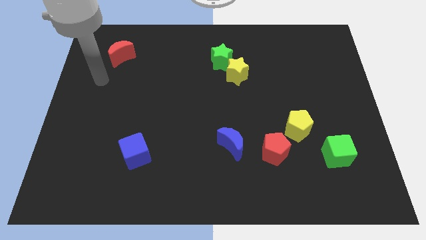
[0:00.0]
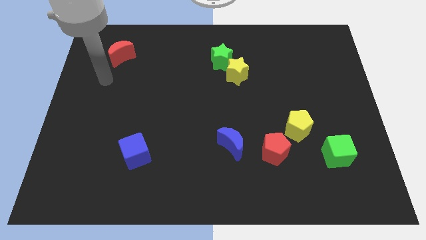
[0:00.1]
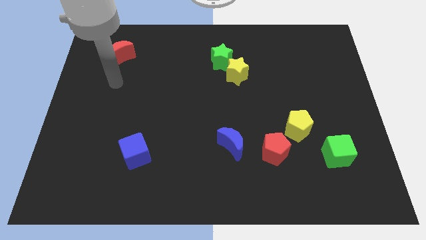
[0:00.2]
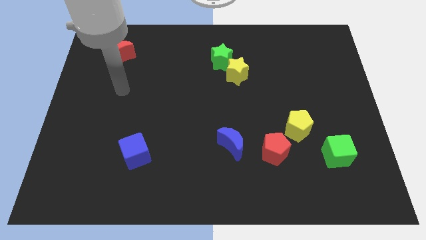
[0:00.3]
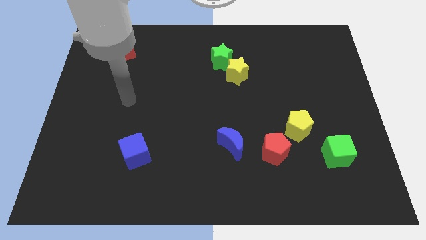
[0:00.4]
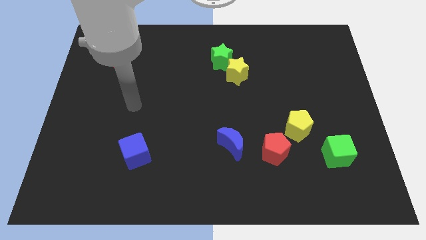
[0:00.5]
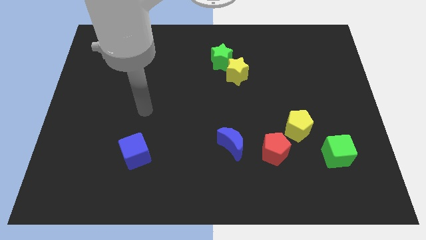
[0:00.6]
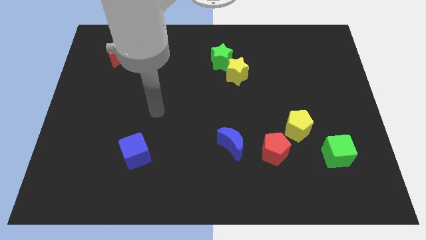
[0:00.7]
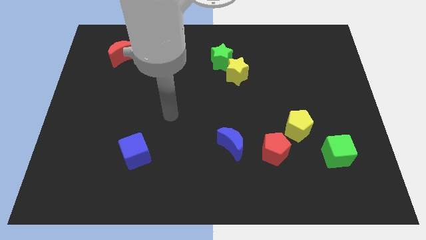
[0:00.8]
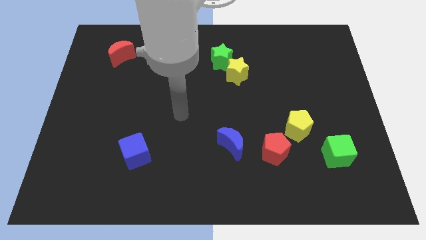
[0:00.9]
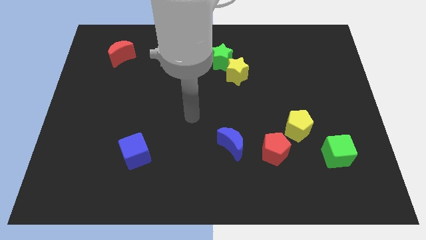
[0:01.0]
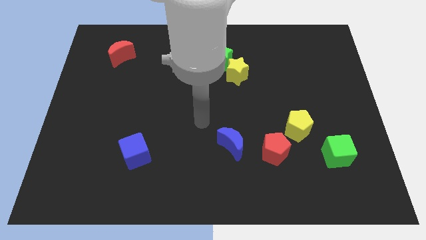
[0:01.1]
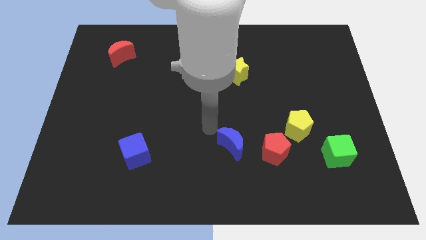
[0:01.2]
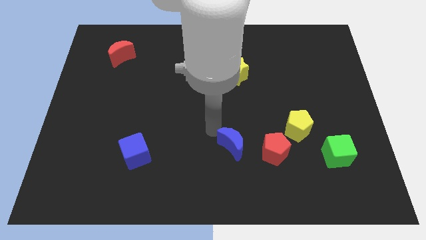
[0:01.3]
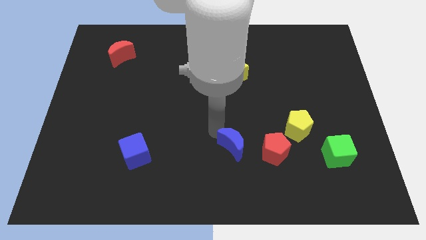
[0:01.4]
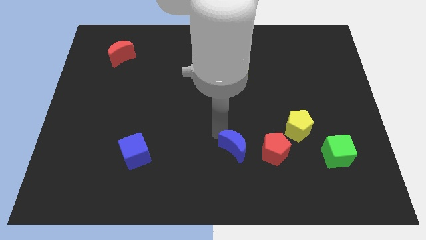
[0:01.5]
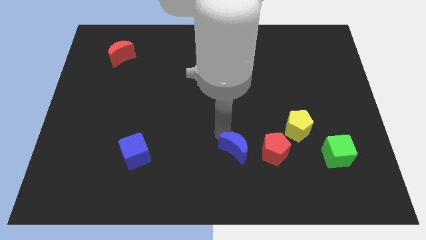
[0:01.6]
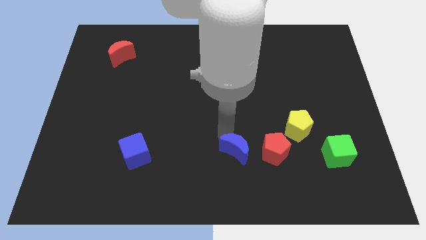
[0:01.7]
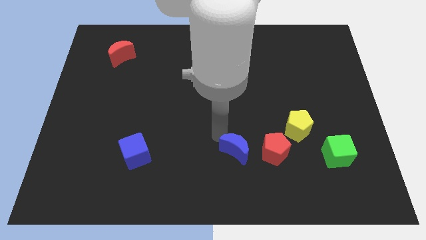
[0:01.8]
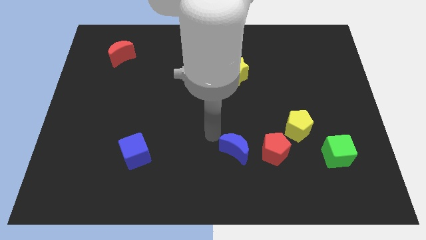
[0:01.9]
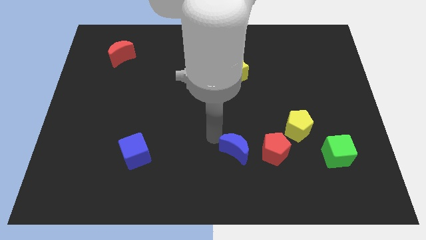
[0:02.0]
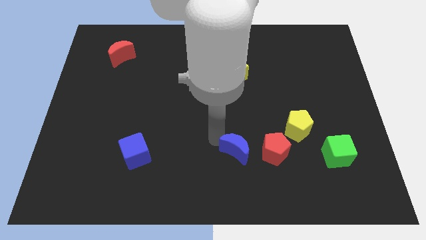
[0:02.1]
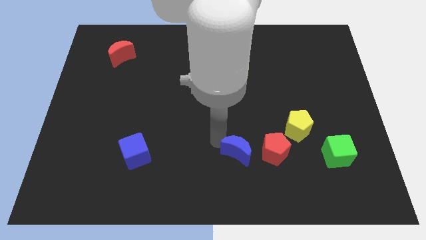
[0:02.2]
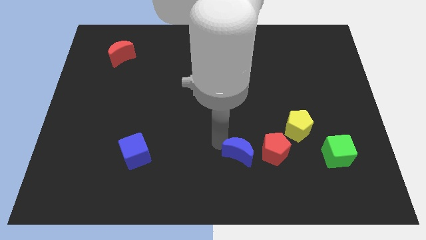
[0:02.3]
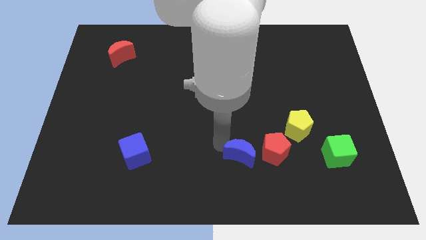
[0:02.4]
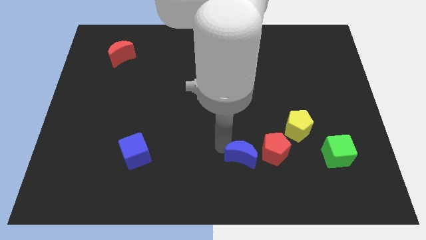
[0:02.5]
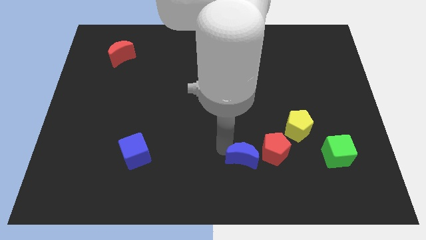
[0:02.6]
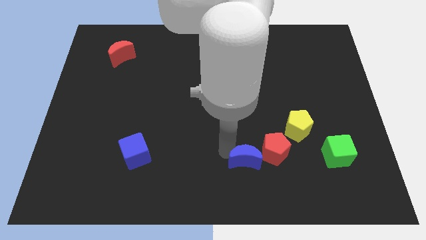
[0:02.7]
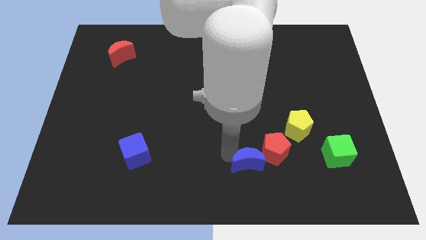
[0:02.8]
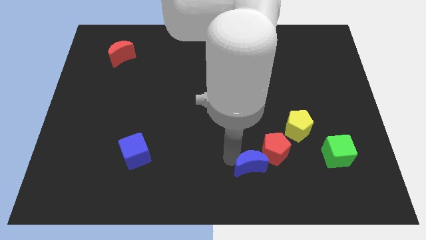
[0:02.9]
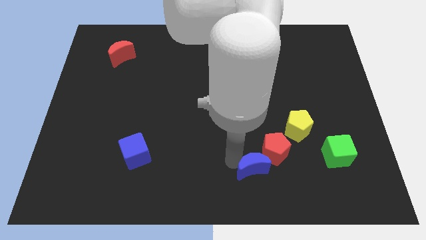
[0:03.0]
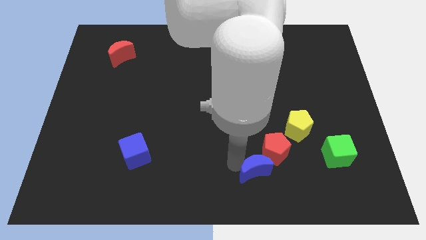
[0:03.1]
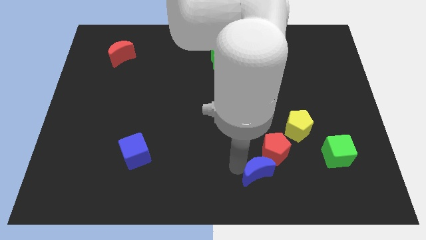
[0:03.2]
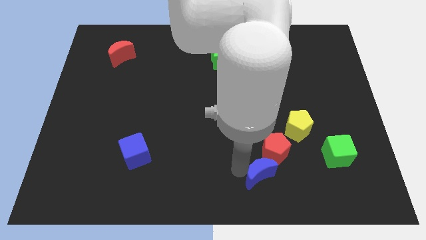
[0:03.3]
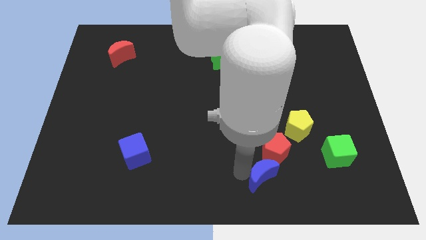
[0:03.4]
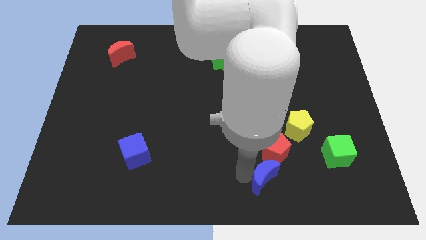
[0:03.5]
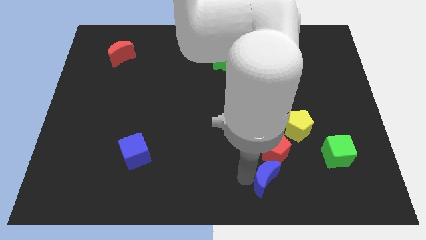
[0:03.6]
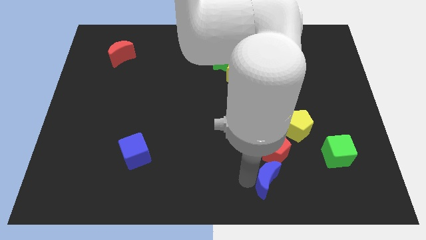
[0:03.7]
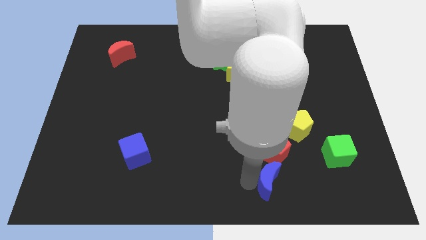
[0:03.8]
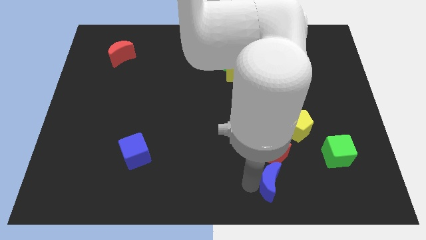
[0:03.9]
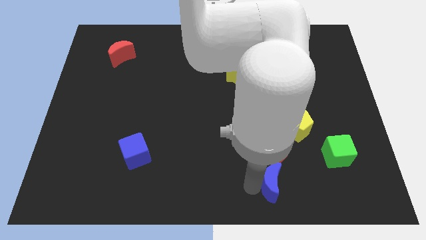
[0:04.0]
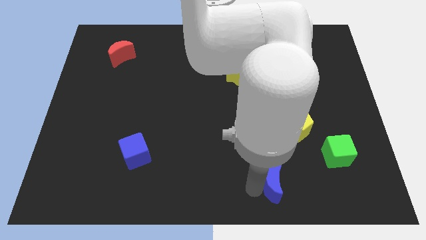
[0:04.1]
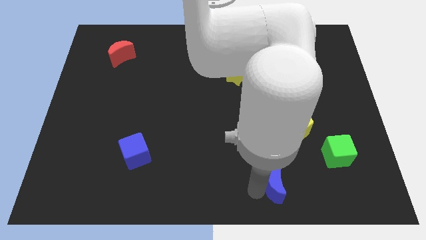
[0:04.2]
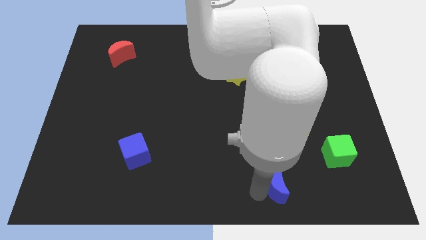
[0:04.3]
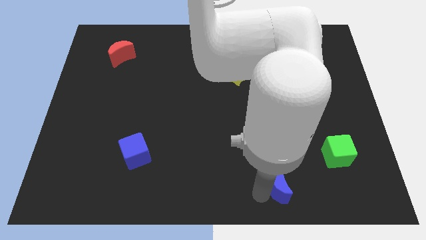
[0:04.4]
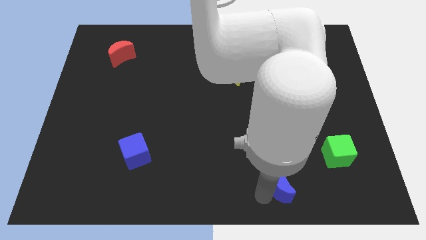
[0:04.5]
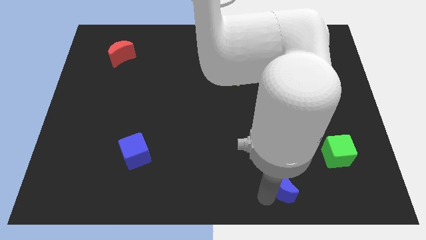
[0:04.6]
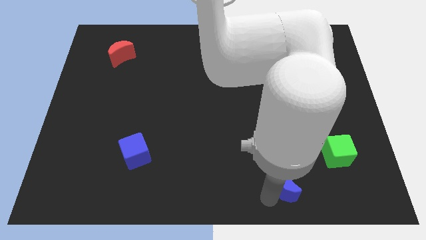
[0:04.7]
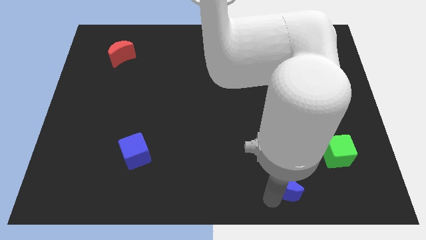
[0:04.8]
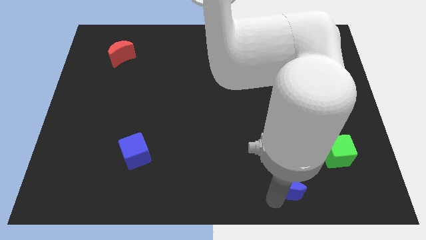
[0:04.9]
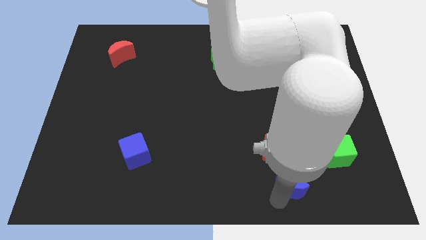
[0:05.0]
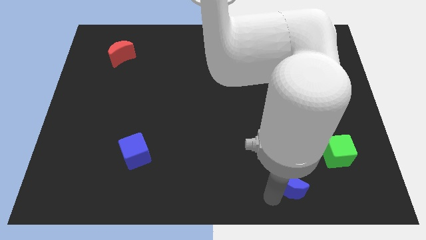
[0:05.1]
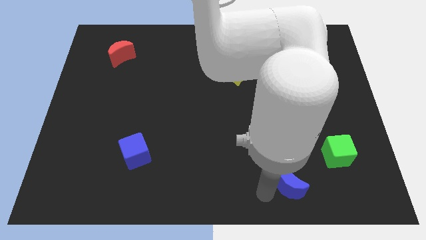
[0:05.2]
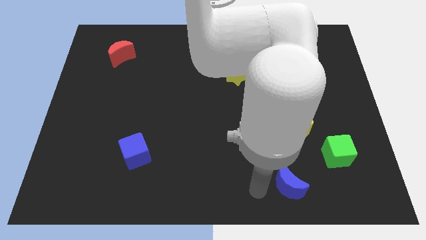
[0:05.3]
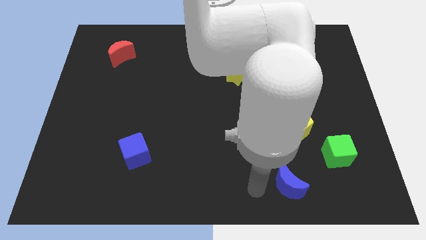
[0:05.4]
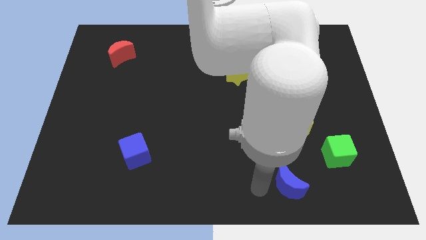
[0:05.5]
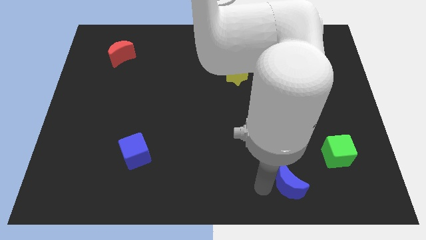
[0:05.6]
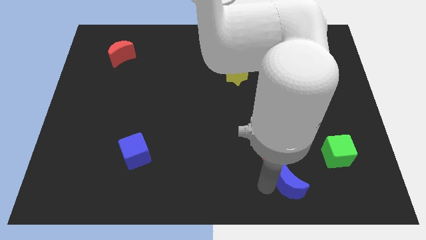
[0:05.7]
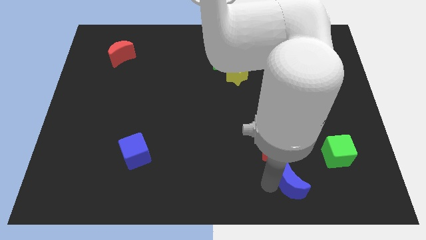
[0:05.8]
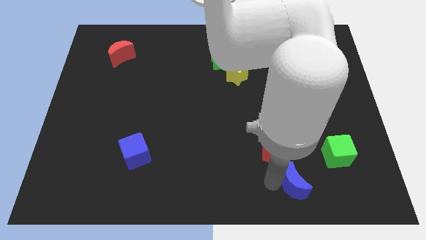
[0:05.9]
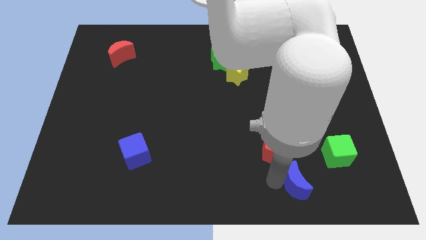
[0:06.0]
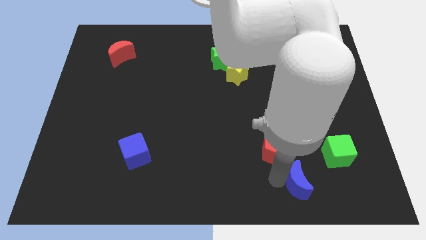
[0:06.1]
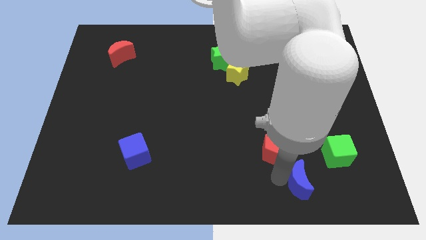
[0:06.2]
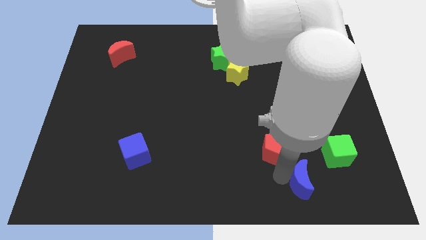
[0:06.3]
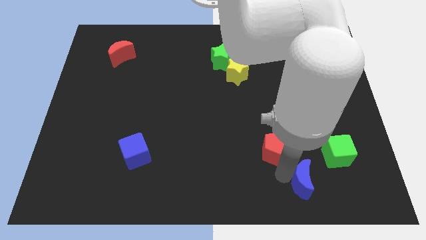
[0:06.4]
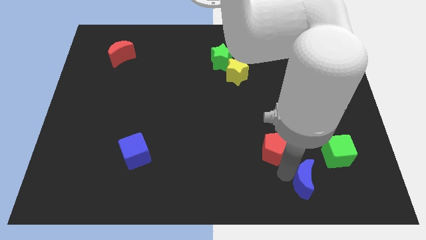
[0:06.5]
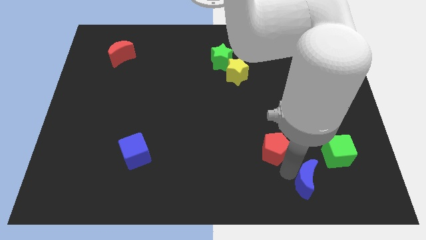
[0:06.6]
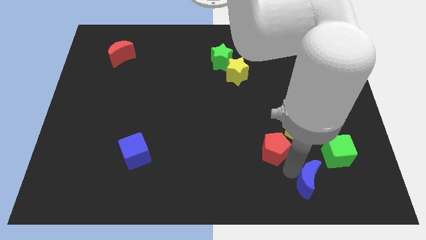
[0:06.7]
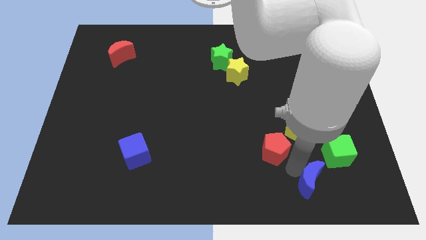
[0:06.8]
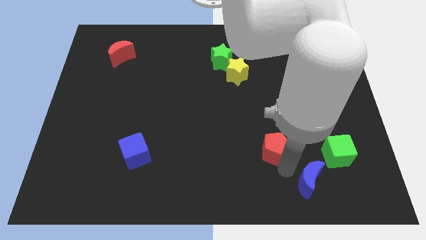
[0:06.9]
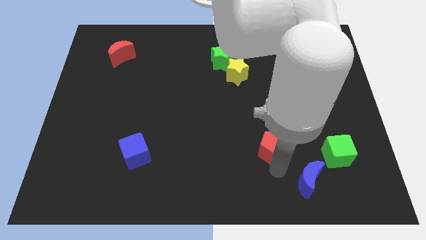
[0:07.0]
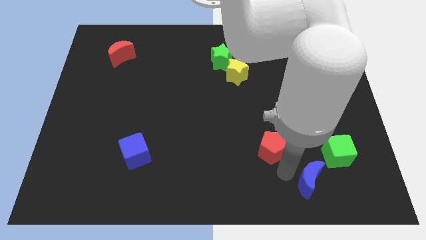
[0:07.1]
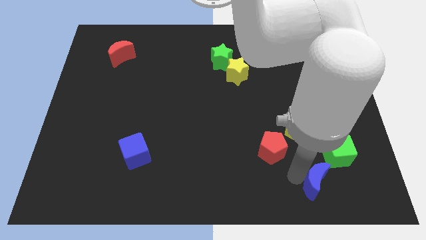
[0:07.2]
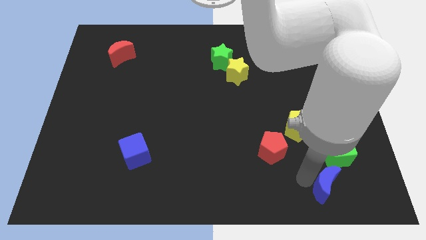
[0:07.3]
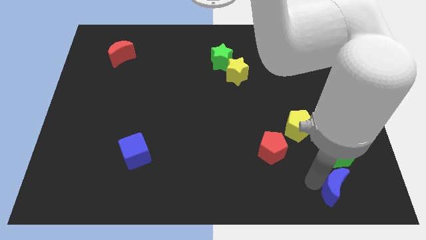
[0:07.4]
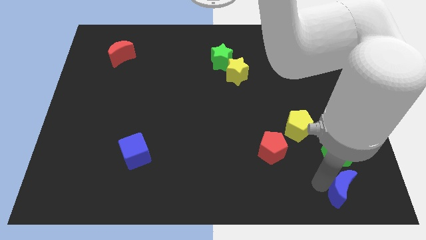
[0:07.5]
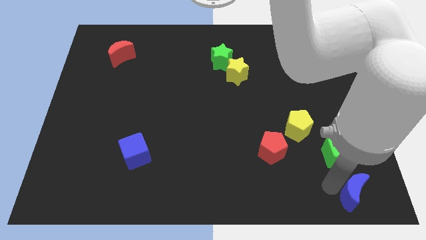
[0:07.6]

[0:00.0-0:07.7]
push the blue moon to the bottom right
